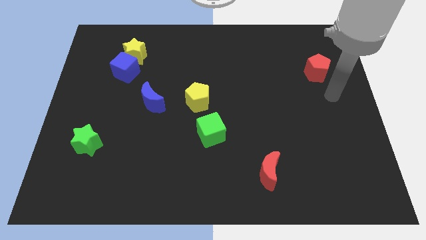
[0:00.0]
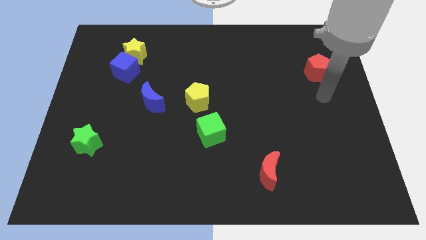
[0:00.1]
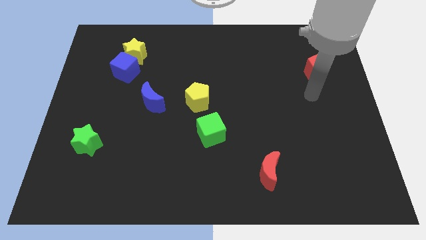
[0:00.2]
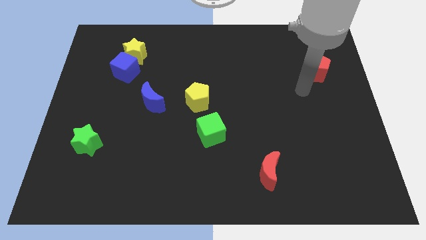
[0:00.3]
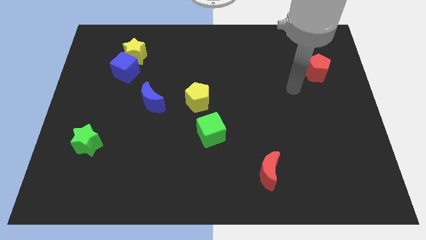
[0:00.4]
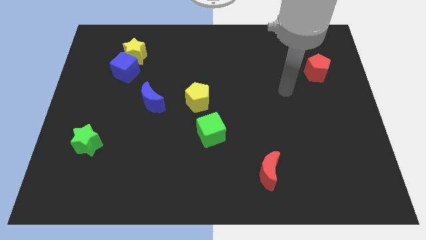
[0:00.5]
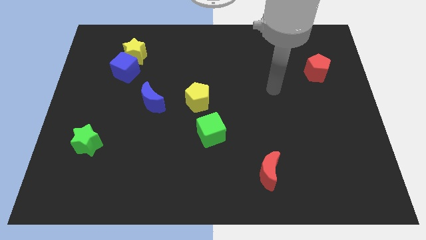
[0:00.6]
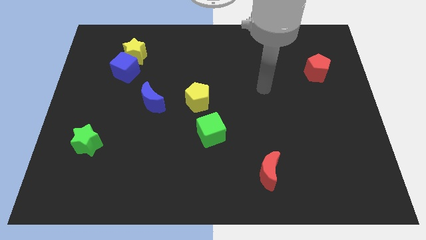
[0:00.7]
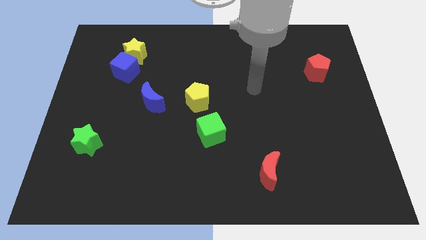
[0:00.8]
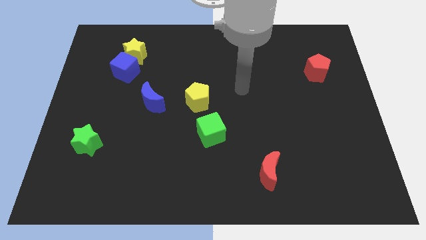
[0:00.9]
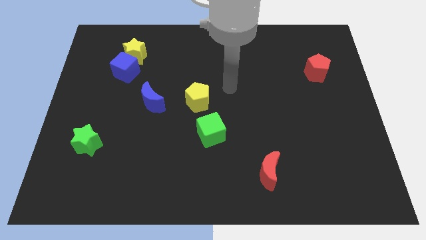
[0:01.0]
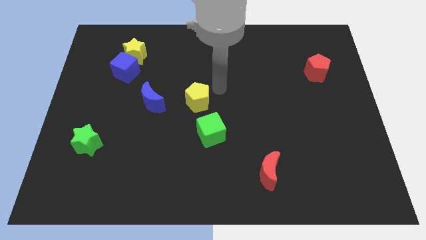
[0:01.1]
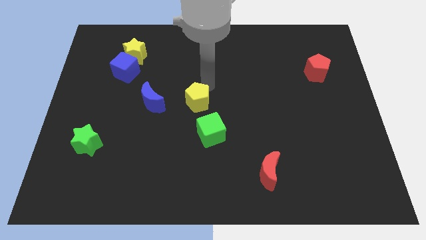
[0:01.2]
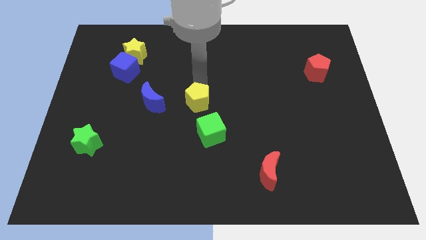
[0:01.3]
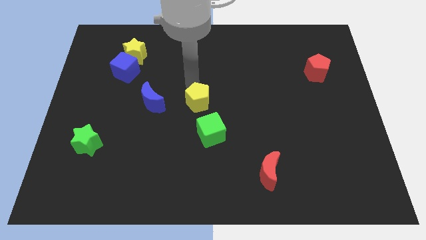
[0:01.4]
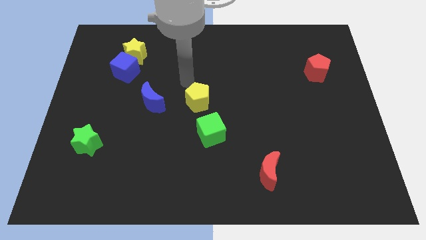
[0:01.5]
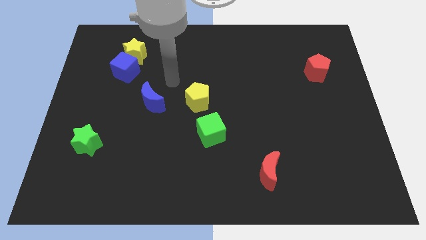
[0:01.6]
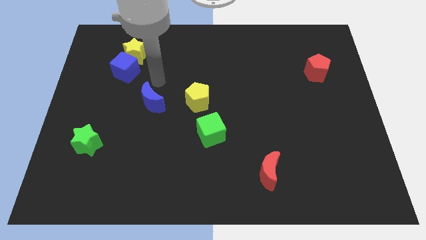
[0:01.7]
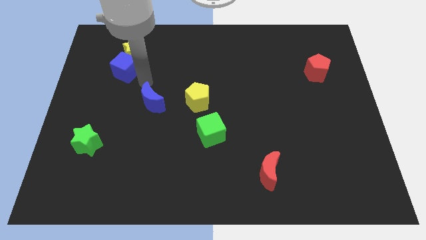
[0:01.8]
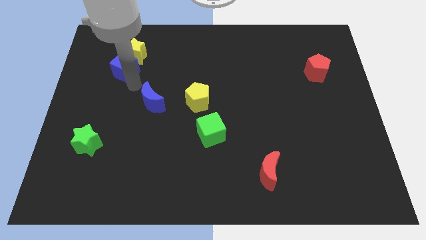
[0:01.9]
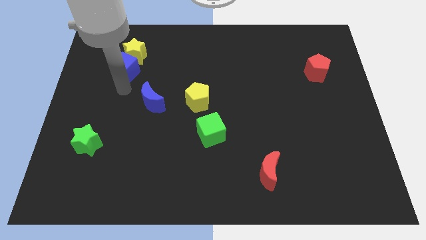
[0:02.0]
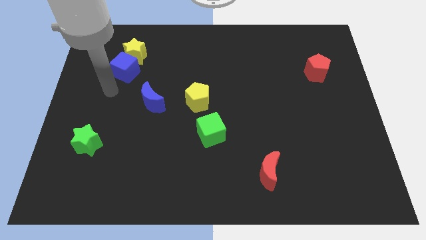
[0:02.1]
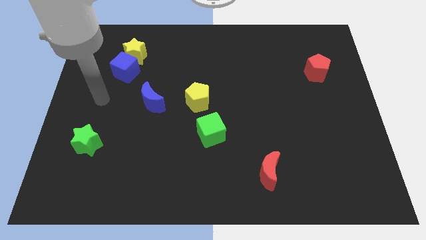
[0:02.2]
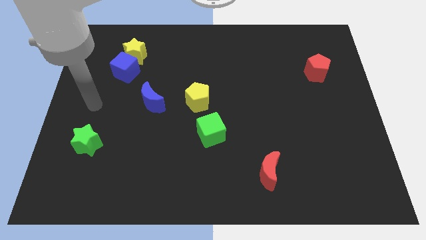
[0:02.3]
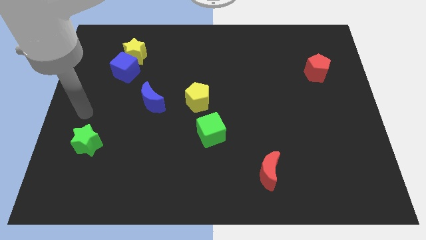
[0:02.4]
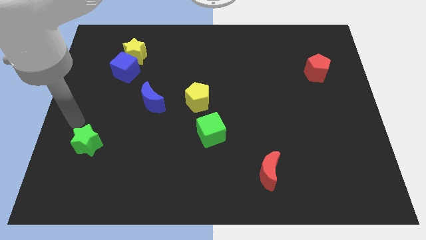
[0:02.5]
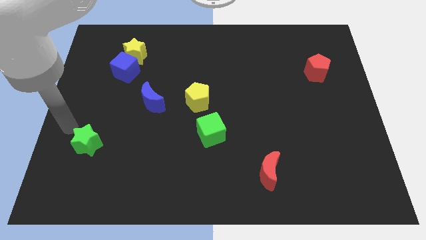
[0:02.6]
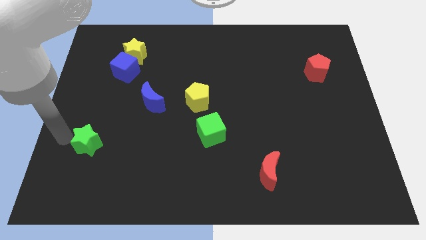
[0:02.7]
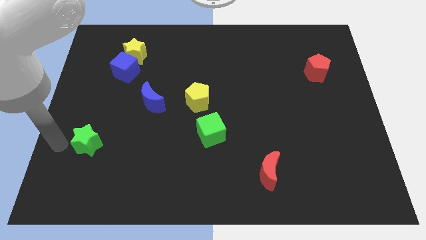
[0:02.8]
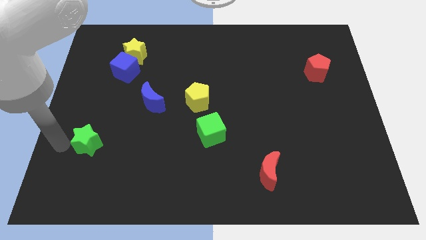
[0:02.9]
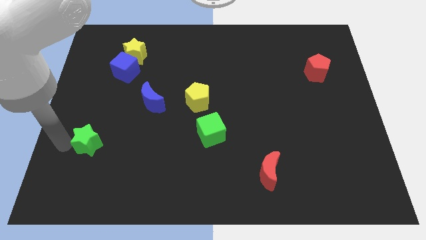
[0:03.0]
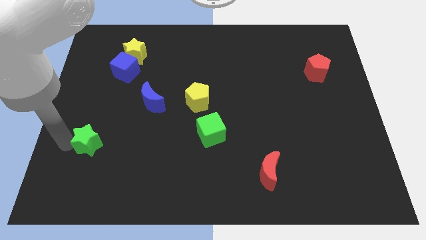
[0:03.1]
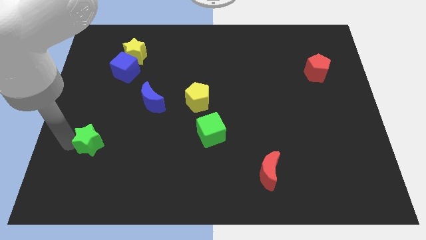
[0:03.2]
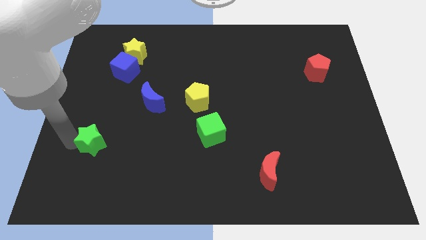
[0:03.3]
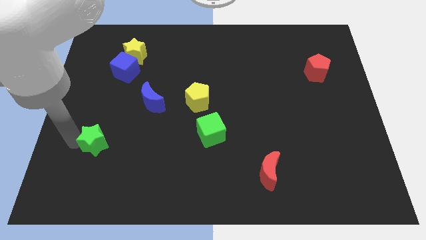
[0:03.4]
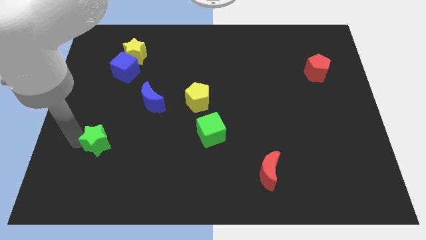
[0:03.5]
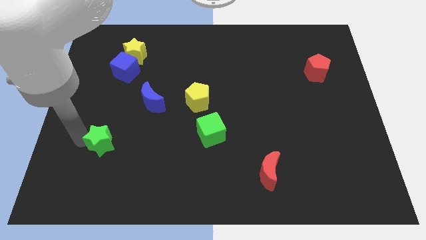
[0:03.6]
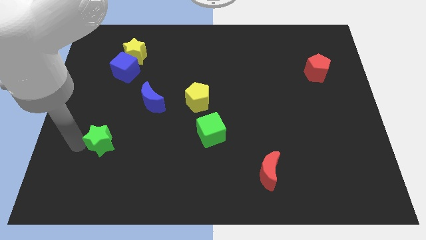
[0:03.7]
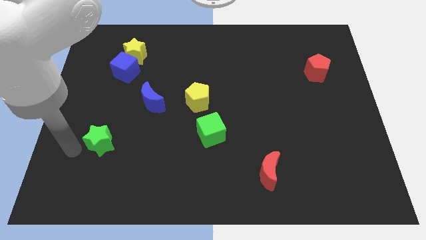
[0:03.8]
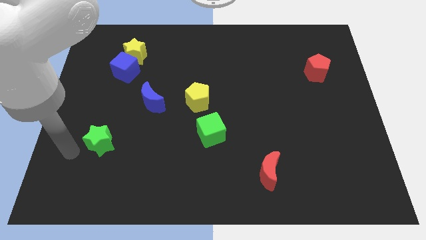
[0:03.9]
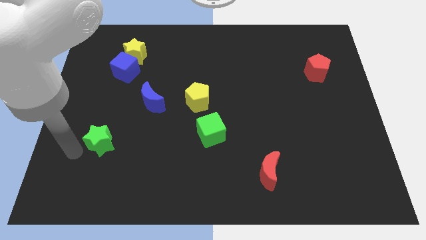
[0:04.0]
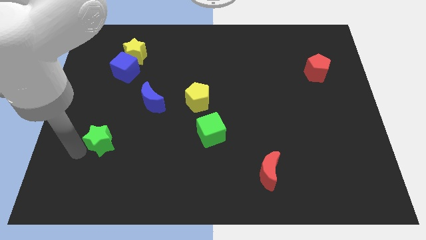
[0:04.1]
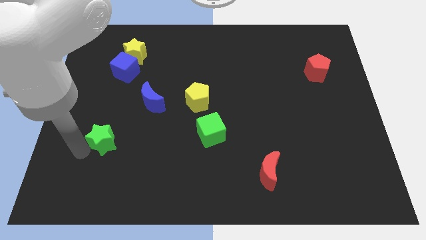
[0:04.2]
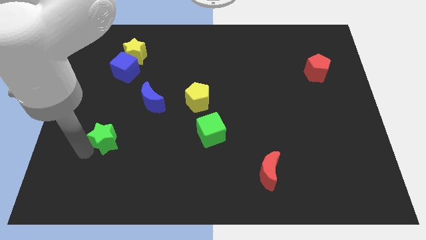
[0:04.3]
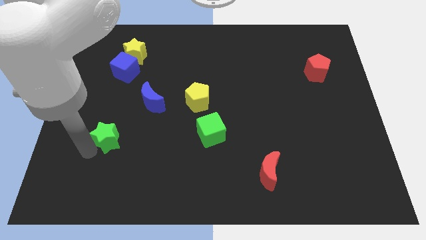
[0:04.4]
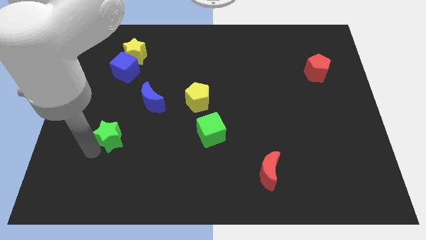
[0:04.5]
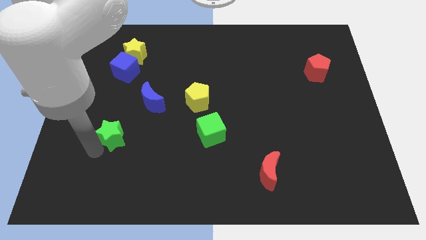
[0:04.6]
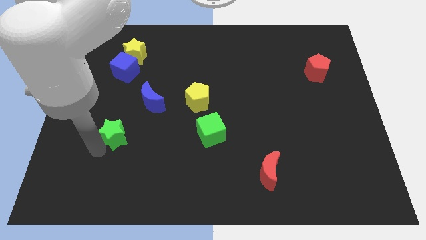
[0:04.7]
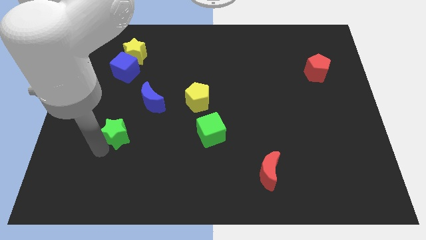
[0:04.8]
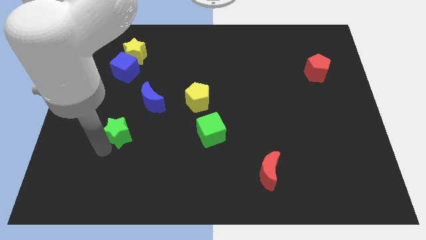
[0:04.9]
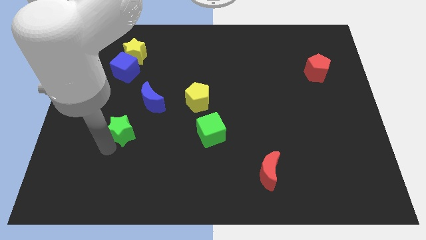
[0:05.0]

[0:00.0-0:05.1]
slightly move the green star right

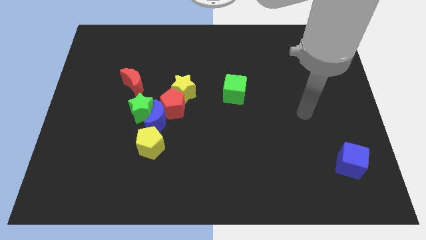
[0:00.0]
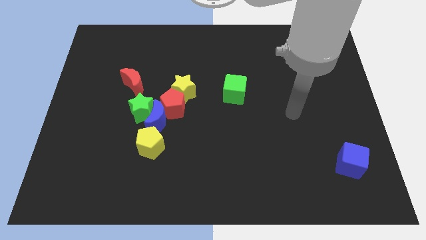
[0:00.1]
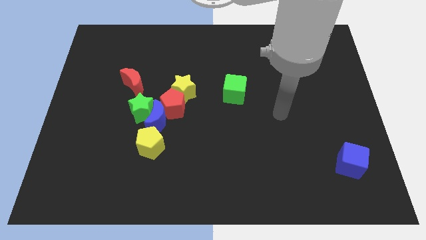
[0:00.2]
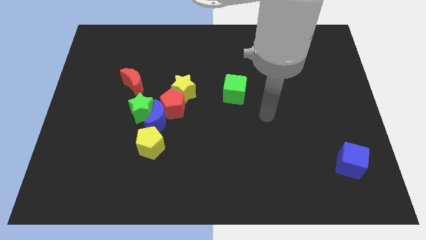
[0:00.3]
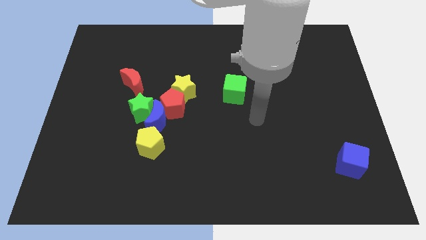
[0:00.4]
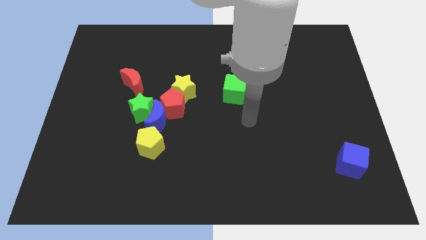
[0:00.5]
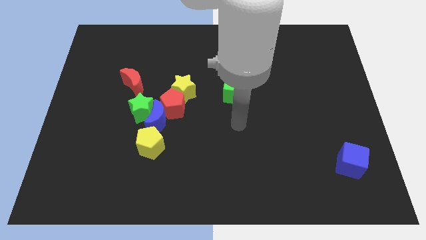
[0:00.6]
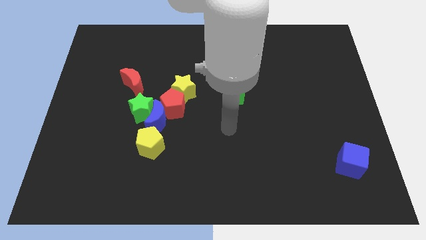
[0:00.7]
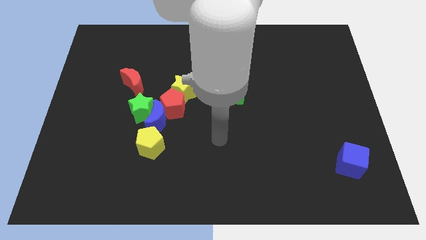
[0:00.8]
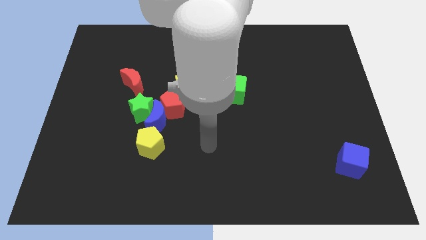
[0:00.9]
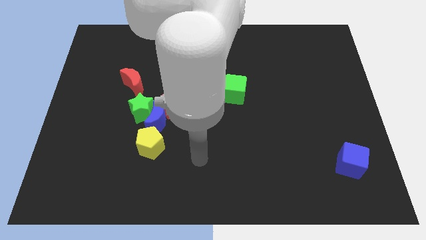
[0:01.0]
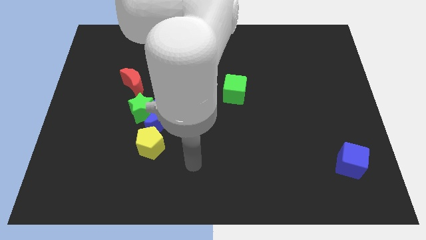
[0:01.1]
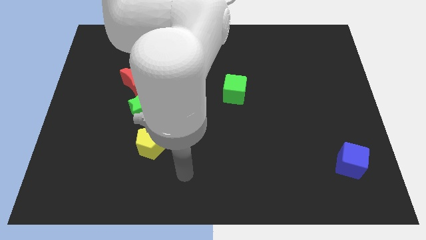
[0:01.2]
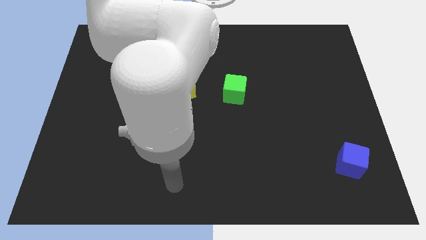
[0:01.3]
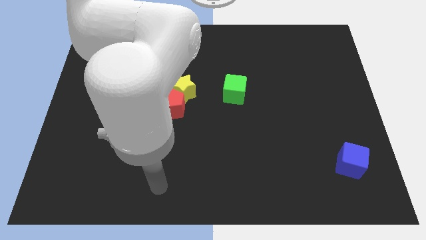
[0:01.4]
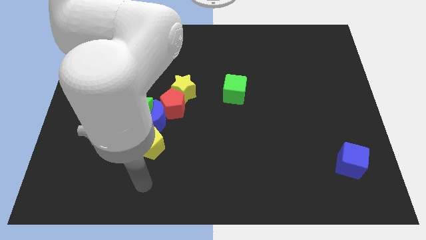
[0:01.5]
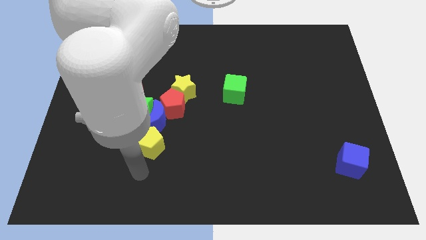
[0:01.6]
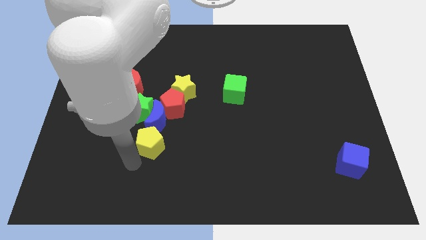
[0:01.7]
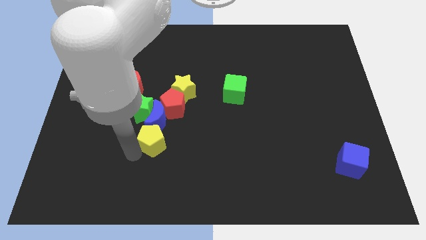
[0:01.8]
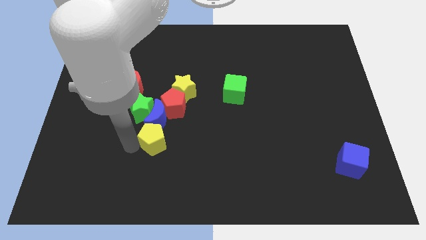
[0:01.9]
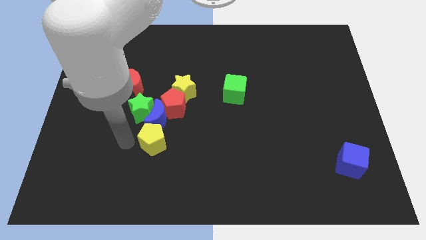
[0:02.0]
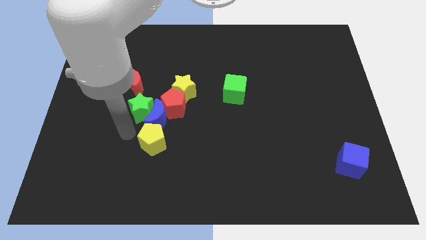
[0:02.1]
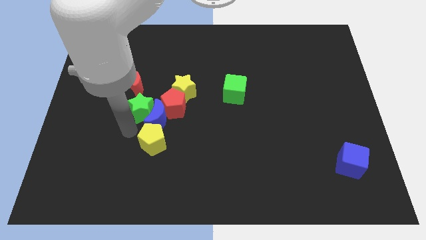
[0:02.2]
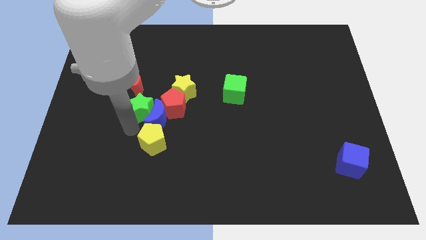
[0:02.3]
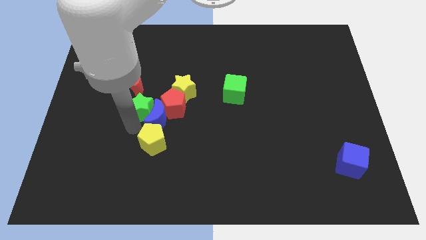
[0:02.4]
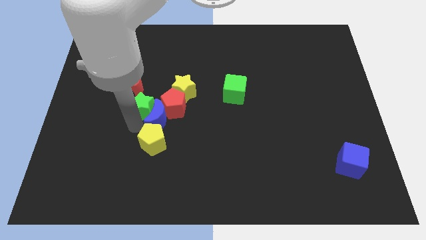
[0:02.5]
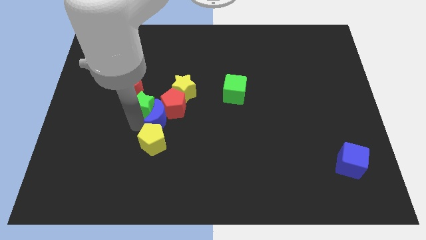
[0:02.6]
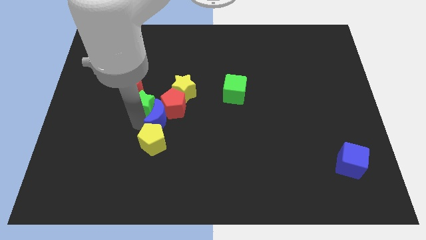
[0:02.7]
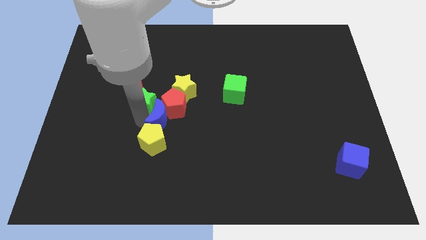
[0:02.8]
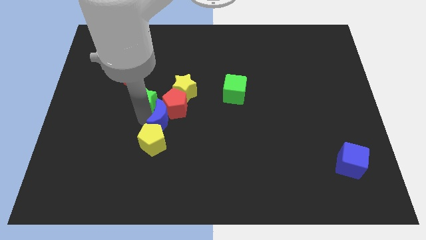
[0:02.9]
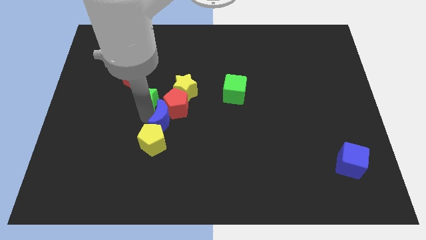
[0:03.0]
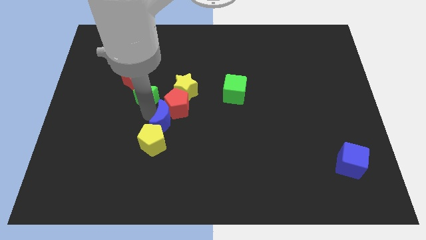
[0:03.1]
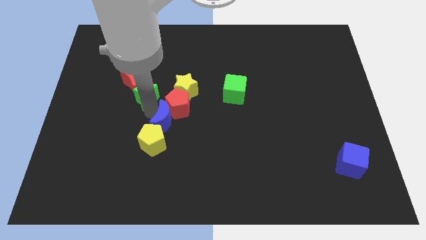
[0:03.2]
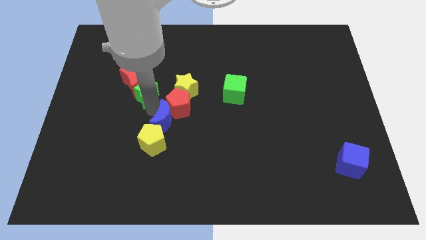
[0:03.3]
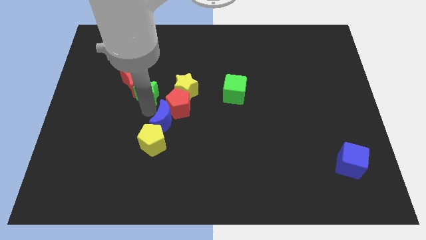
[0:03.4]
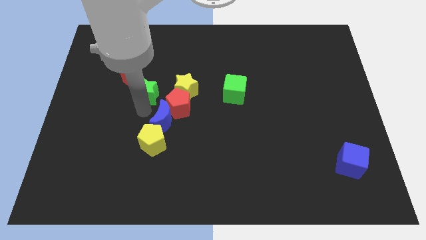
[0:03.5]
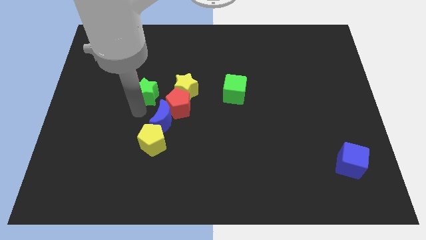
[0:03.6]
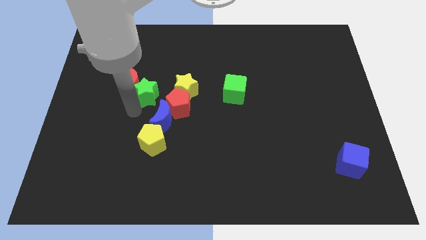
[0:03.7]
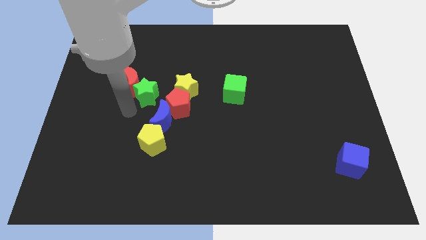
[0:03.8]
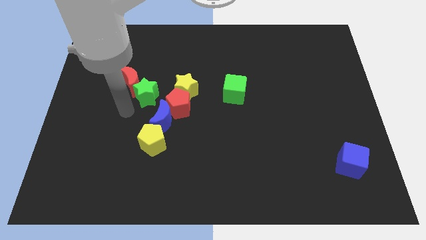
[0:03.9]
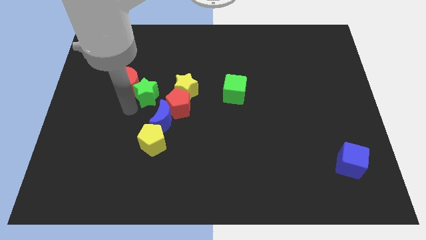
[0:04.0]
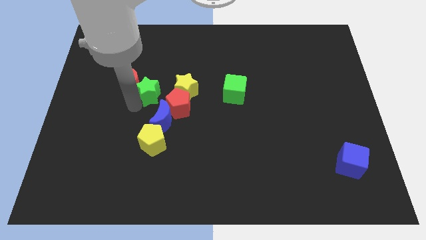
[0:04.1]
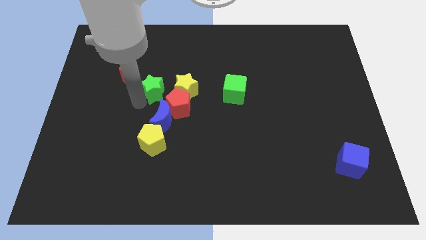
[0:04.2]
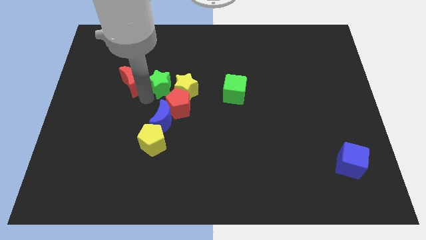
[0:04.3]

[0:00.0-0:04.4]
push the green star slightly up and right diagonally
